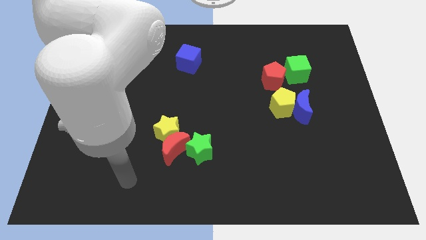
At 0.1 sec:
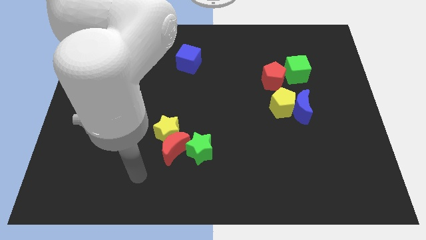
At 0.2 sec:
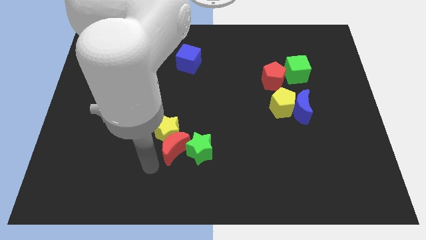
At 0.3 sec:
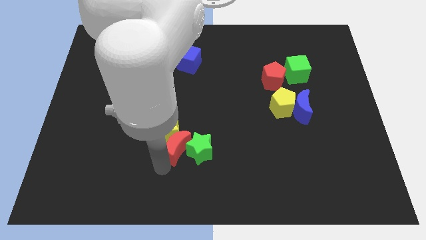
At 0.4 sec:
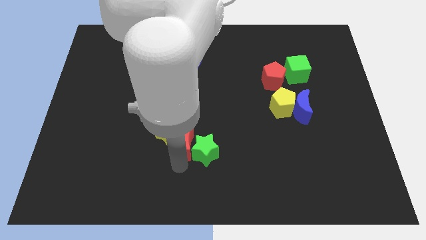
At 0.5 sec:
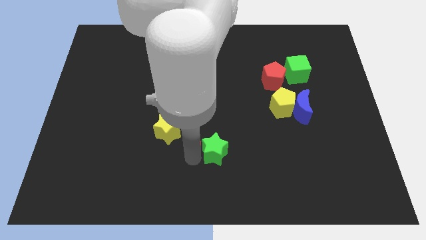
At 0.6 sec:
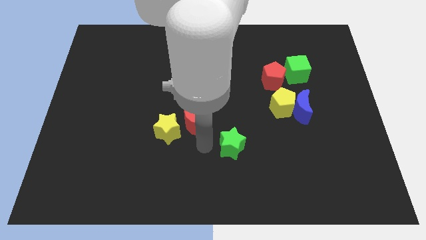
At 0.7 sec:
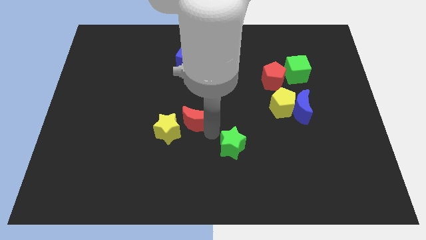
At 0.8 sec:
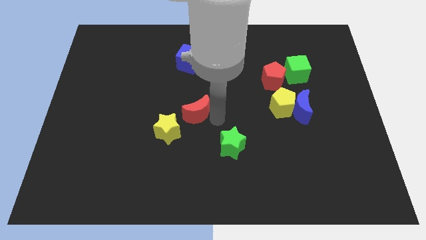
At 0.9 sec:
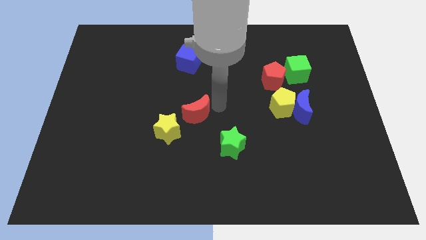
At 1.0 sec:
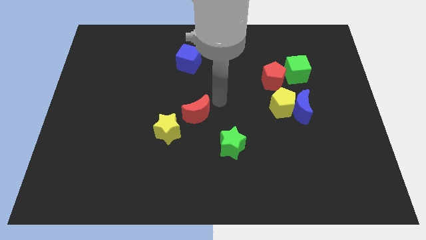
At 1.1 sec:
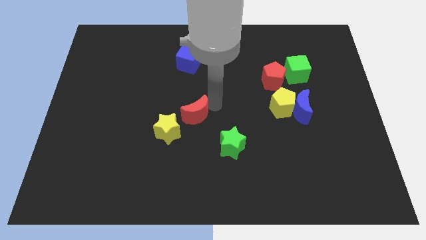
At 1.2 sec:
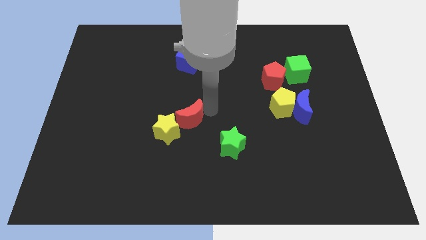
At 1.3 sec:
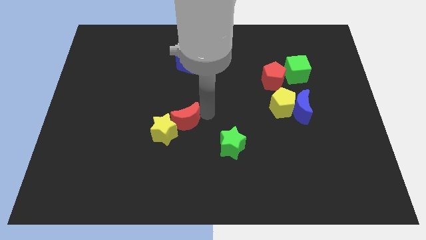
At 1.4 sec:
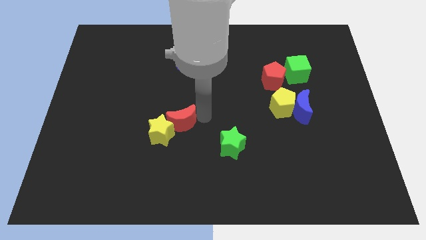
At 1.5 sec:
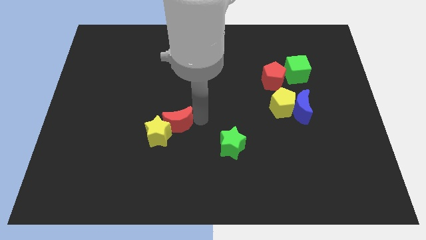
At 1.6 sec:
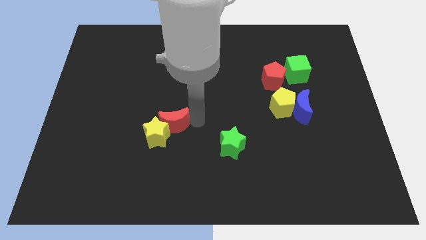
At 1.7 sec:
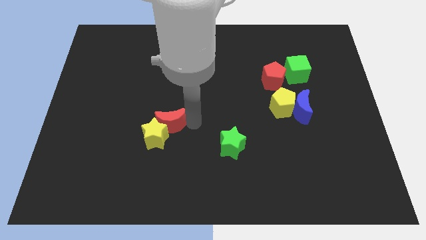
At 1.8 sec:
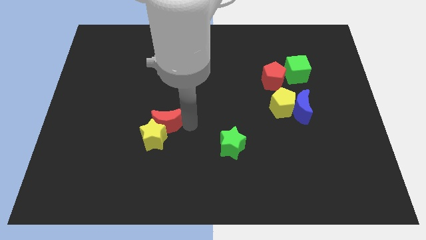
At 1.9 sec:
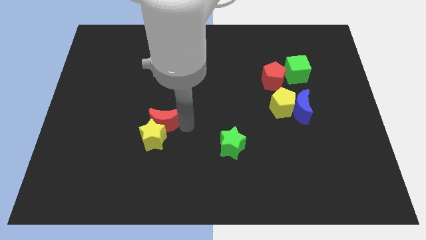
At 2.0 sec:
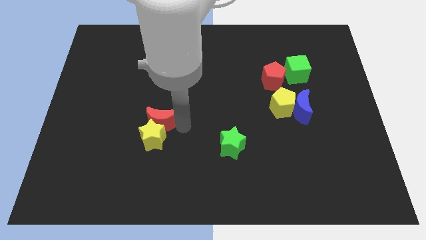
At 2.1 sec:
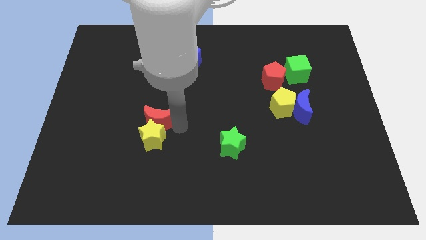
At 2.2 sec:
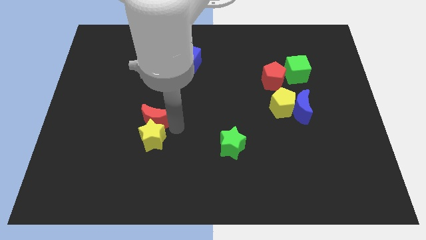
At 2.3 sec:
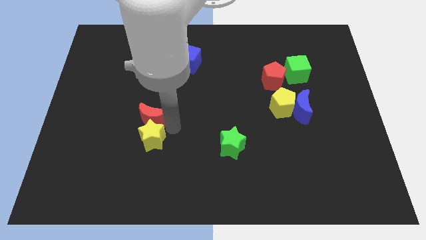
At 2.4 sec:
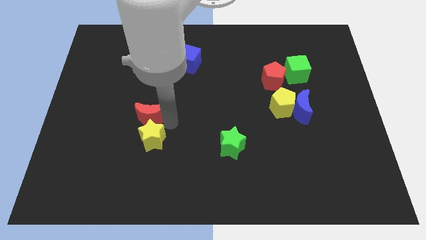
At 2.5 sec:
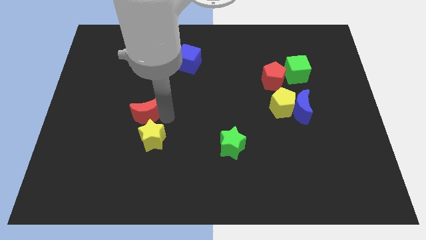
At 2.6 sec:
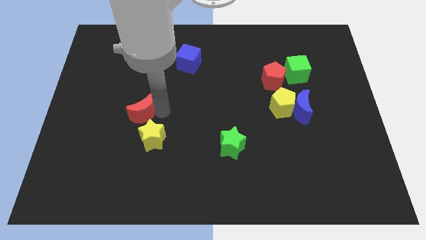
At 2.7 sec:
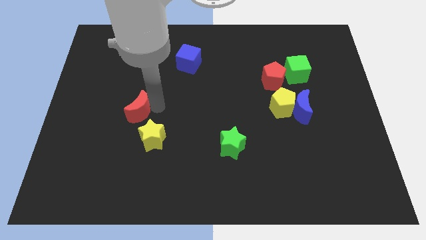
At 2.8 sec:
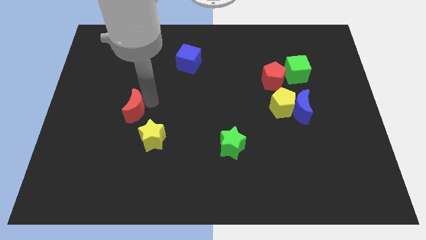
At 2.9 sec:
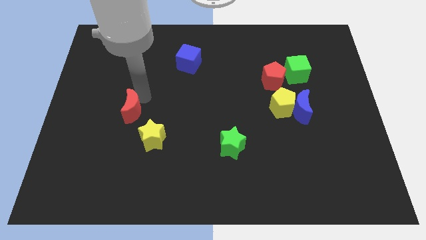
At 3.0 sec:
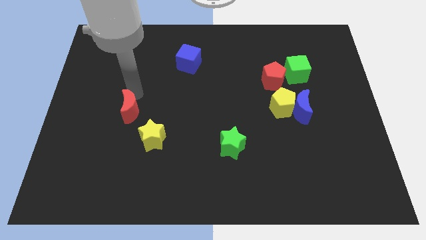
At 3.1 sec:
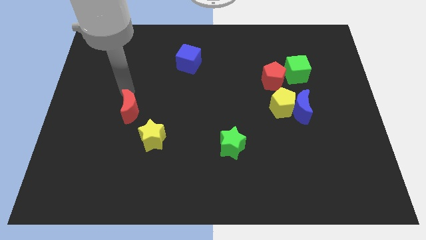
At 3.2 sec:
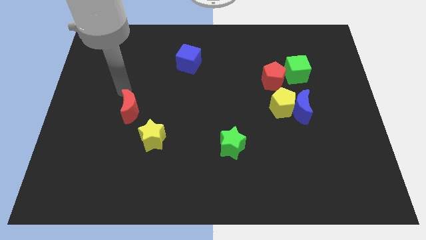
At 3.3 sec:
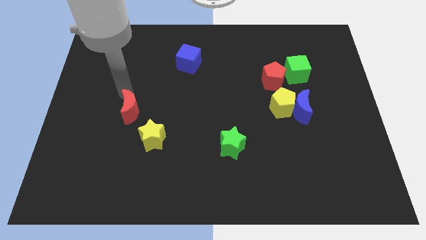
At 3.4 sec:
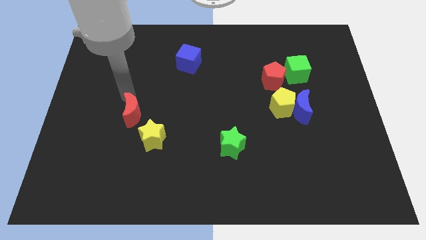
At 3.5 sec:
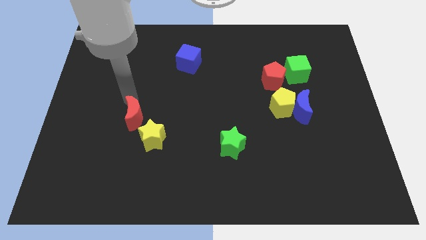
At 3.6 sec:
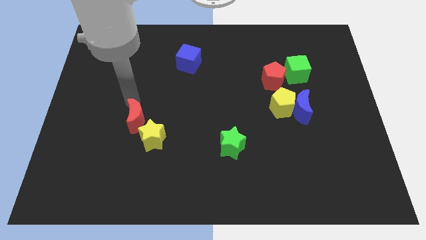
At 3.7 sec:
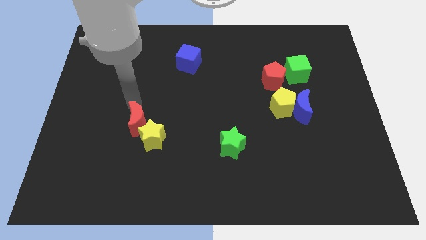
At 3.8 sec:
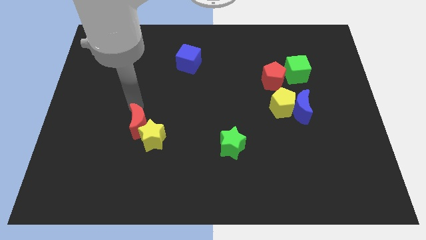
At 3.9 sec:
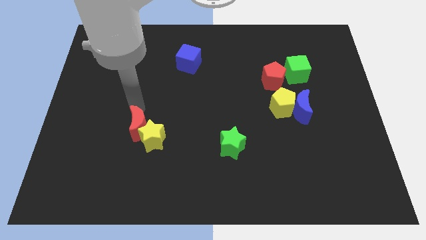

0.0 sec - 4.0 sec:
slide the red moon to the left somewhat

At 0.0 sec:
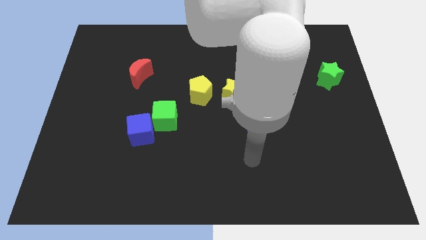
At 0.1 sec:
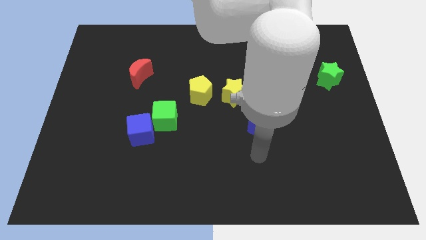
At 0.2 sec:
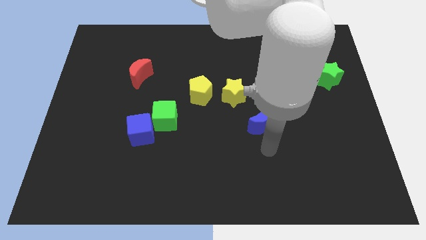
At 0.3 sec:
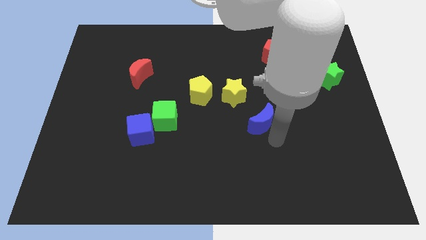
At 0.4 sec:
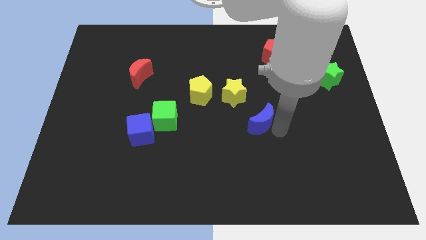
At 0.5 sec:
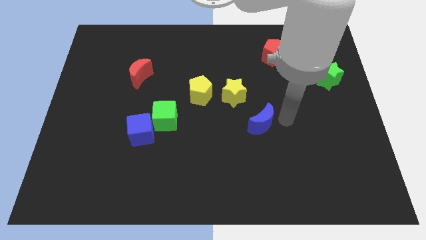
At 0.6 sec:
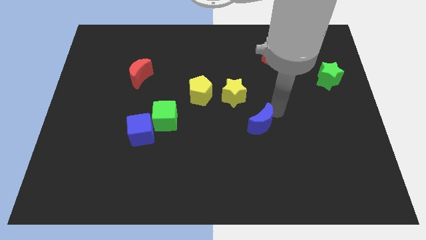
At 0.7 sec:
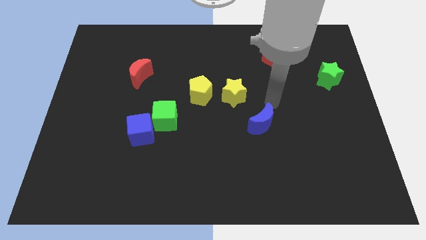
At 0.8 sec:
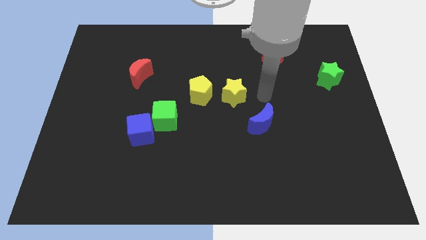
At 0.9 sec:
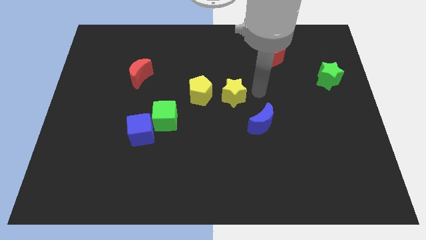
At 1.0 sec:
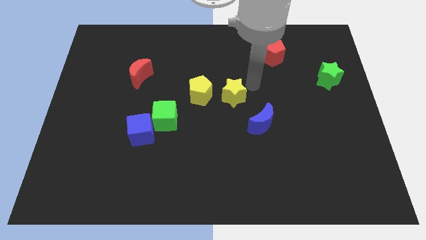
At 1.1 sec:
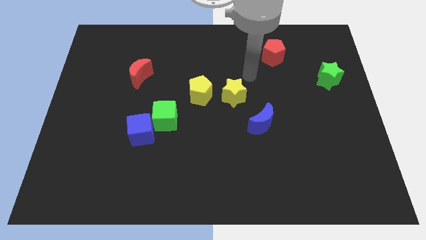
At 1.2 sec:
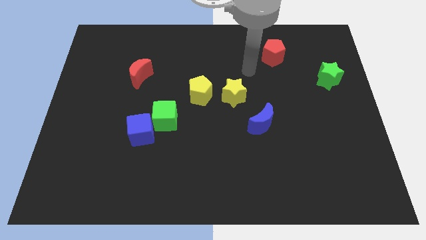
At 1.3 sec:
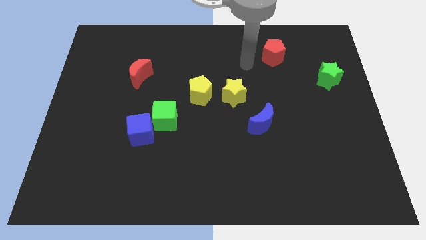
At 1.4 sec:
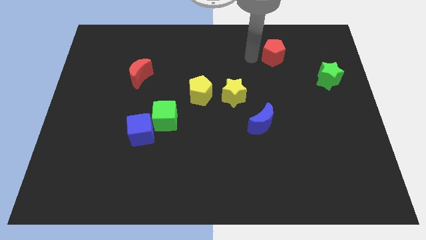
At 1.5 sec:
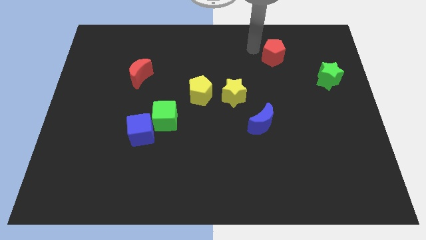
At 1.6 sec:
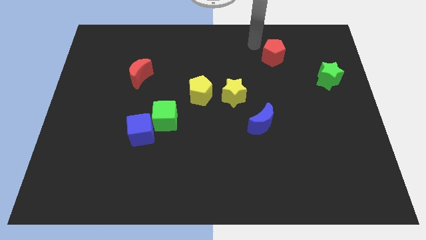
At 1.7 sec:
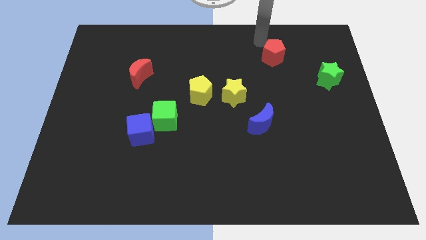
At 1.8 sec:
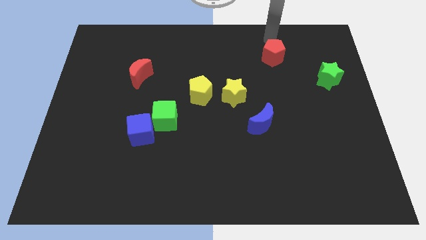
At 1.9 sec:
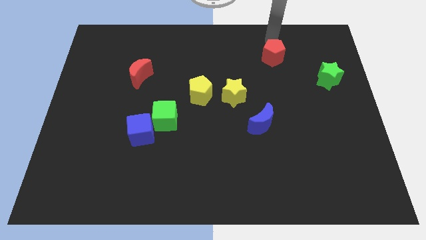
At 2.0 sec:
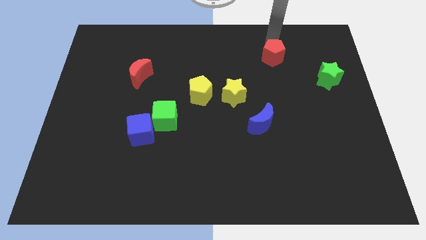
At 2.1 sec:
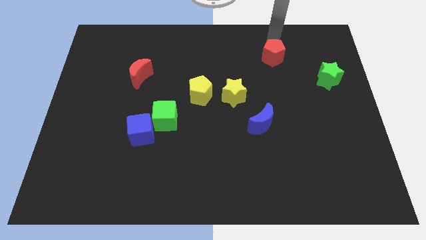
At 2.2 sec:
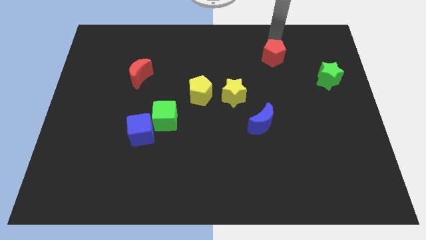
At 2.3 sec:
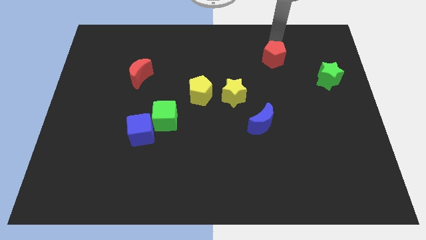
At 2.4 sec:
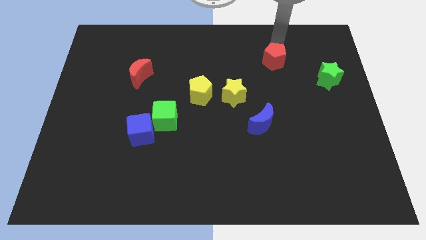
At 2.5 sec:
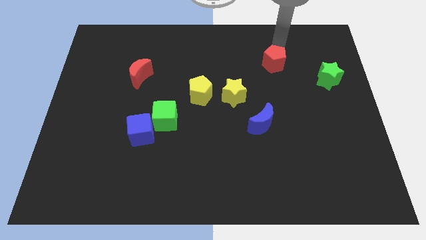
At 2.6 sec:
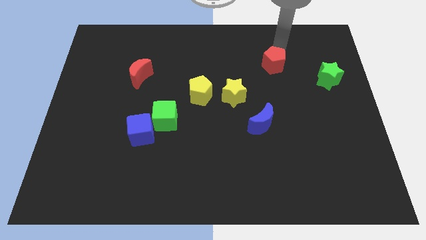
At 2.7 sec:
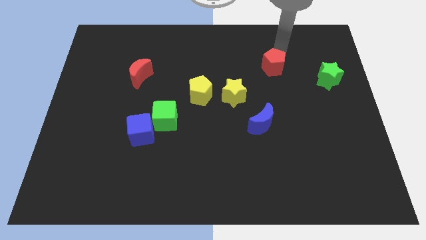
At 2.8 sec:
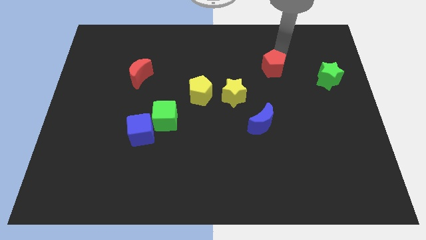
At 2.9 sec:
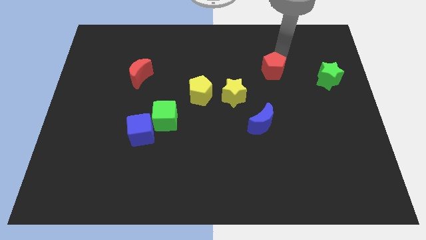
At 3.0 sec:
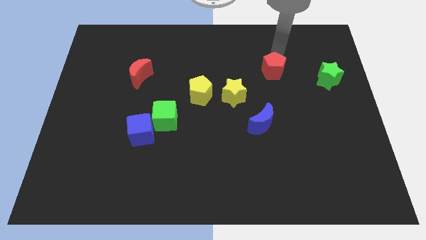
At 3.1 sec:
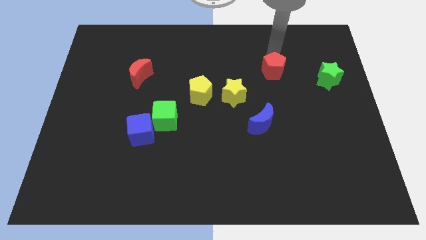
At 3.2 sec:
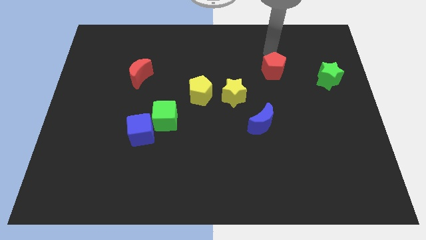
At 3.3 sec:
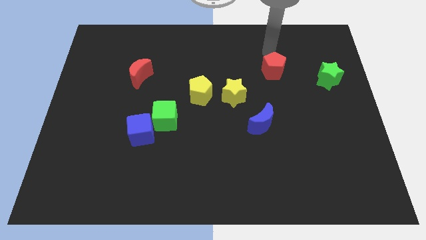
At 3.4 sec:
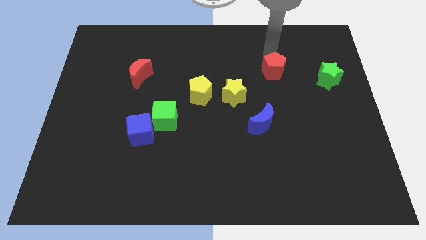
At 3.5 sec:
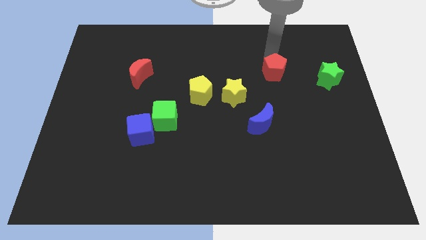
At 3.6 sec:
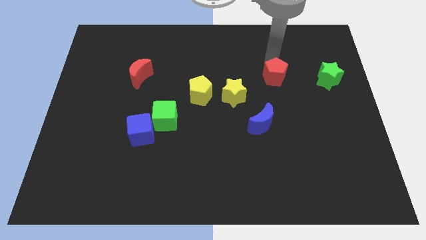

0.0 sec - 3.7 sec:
slide the red pentagon a little bit down
